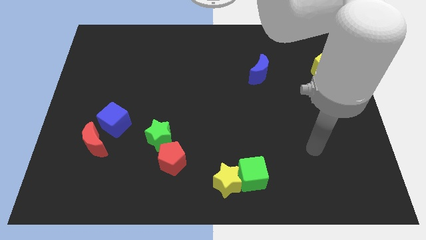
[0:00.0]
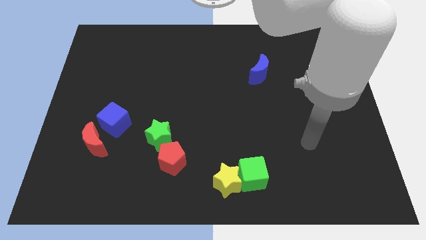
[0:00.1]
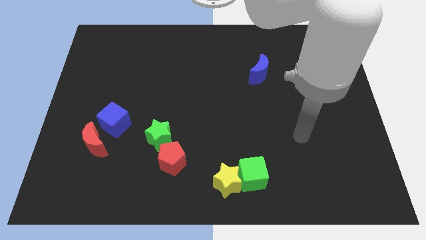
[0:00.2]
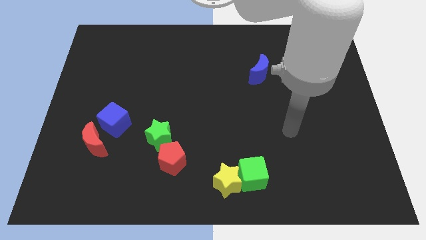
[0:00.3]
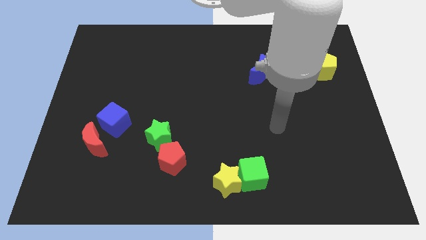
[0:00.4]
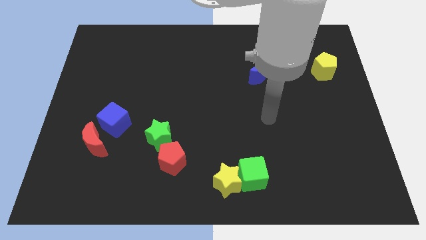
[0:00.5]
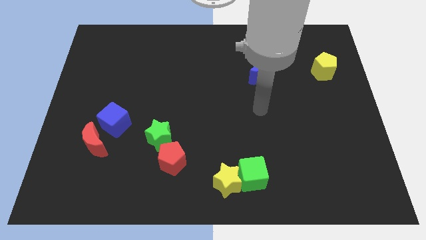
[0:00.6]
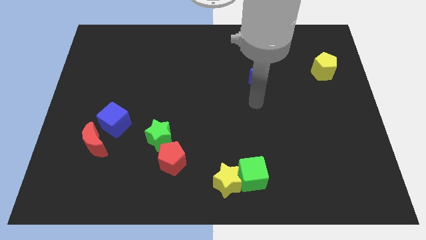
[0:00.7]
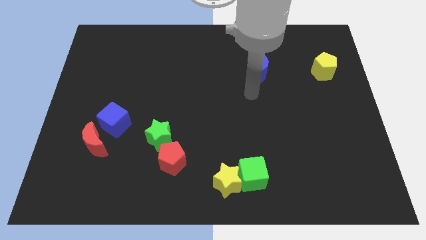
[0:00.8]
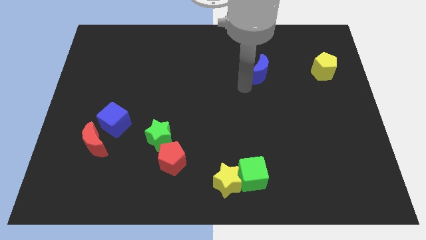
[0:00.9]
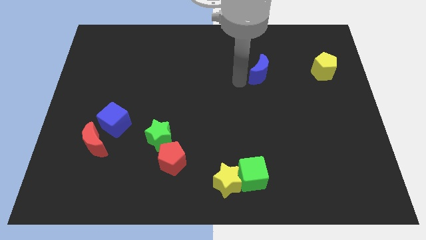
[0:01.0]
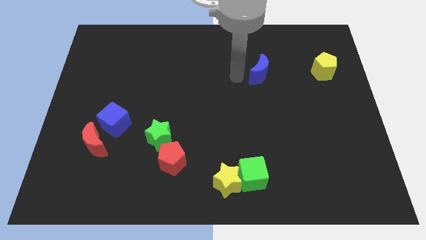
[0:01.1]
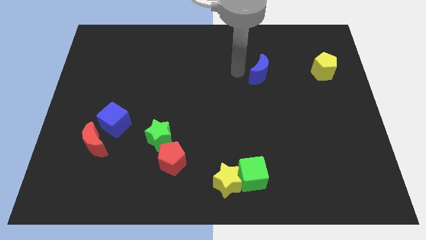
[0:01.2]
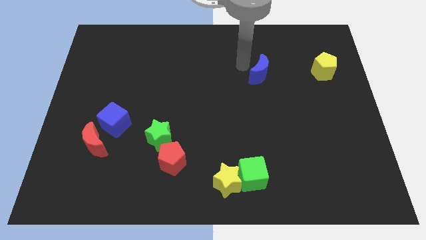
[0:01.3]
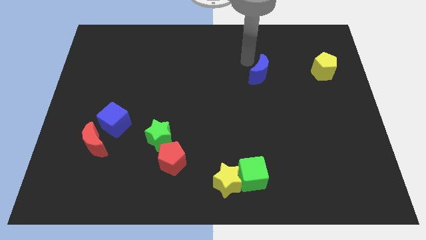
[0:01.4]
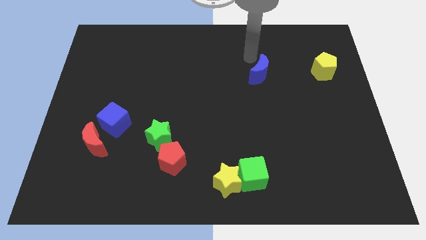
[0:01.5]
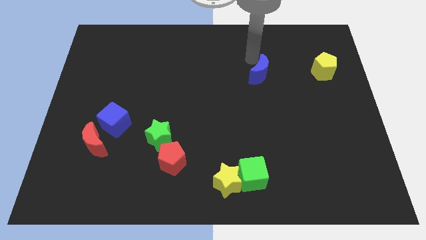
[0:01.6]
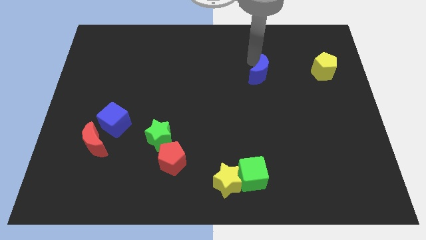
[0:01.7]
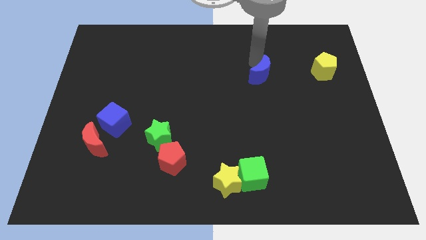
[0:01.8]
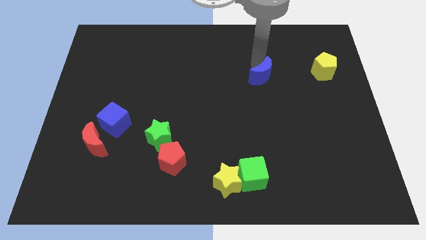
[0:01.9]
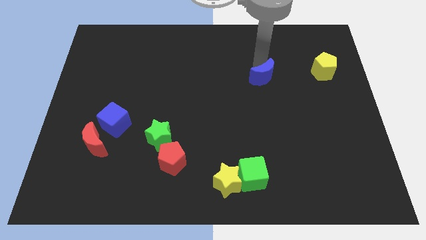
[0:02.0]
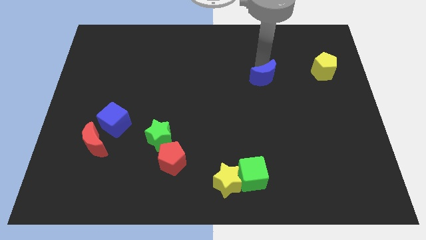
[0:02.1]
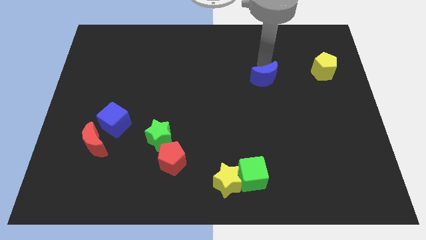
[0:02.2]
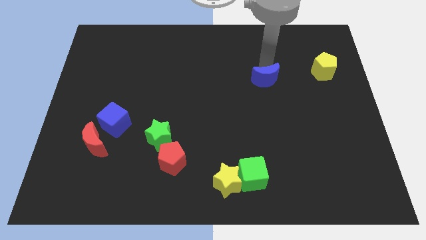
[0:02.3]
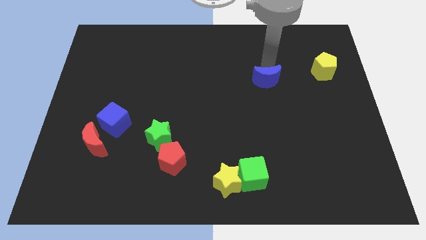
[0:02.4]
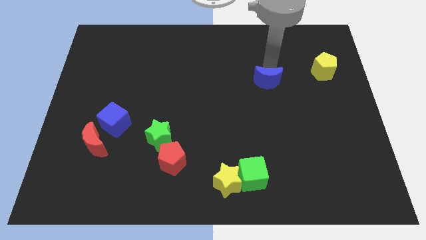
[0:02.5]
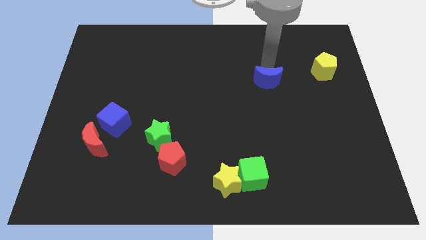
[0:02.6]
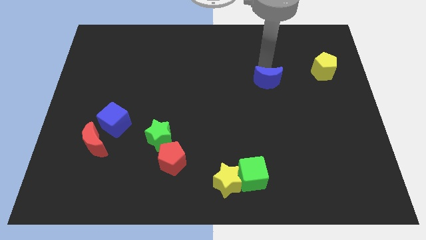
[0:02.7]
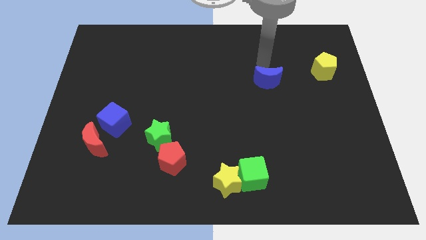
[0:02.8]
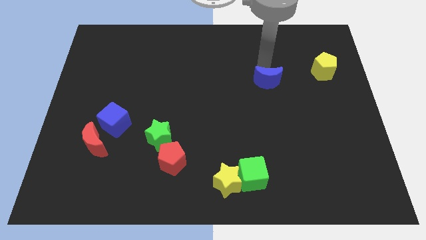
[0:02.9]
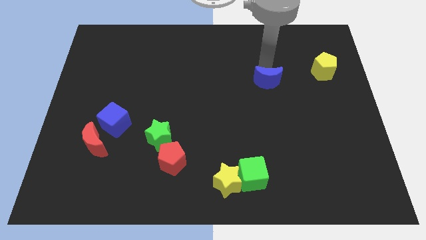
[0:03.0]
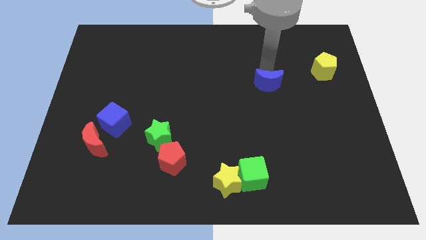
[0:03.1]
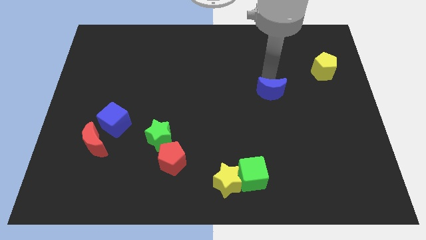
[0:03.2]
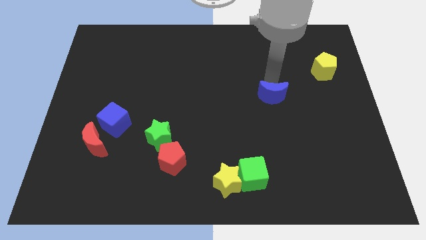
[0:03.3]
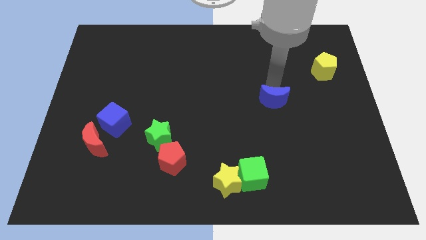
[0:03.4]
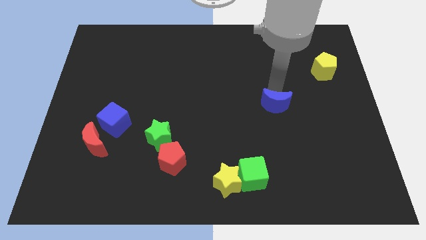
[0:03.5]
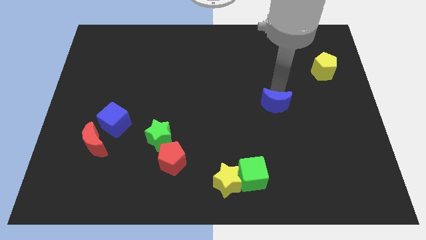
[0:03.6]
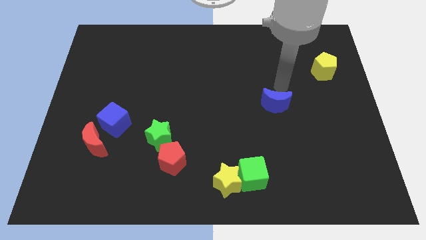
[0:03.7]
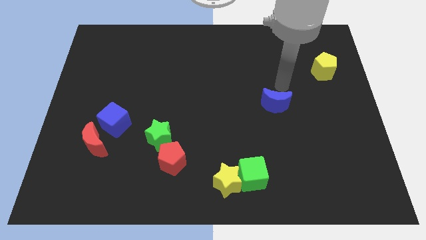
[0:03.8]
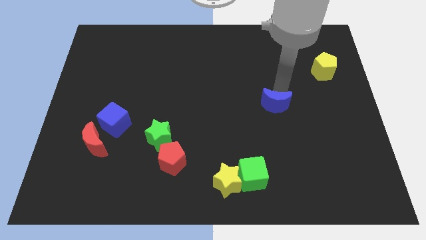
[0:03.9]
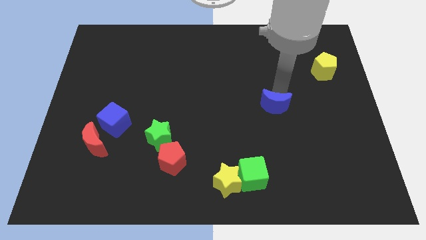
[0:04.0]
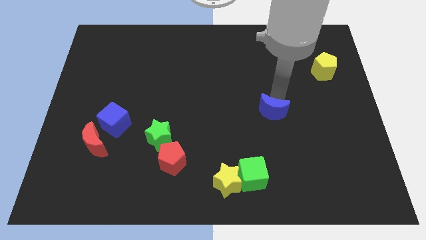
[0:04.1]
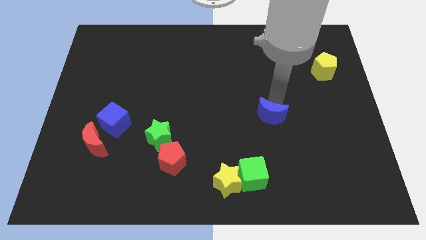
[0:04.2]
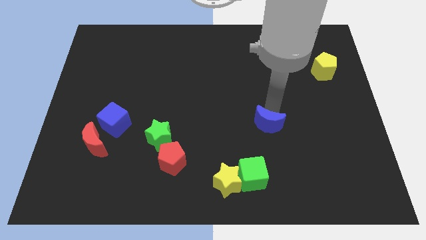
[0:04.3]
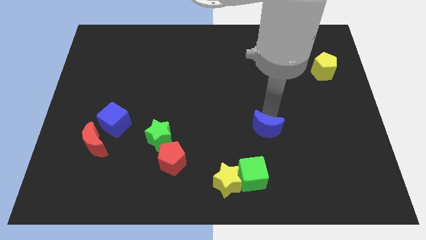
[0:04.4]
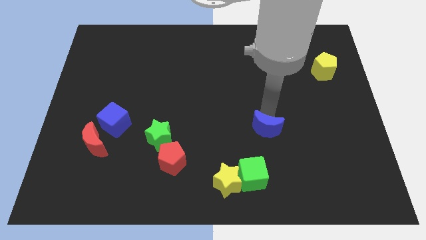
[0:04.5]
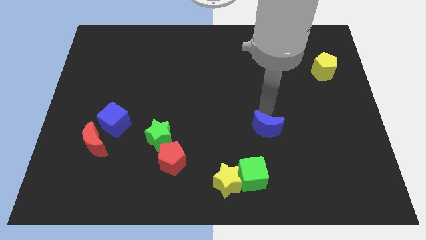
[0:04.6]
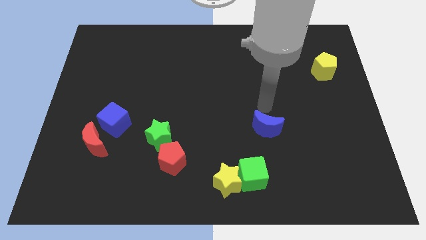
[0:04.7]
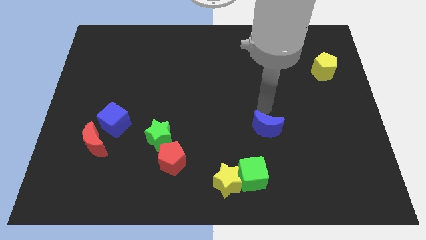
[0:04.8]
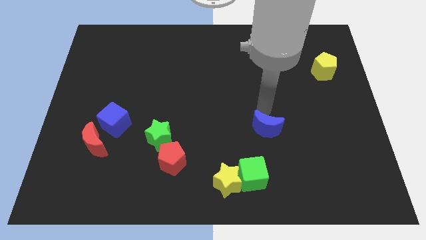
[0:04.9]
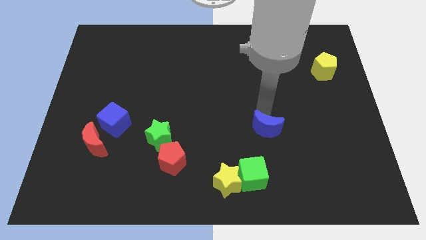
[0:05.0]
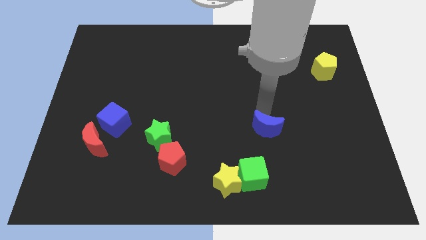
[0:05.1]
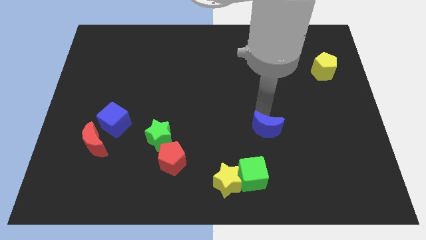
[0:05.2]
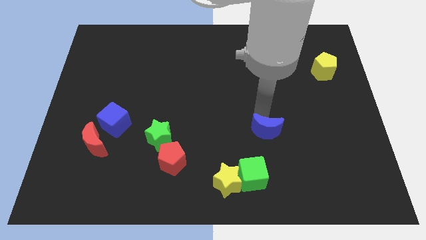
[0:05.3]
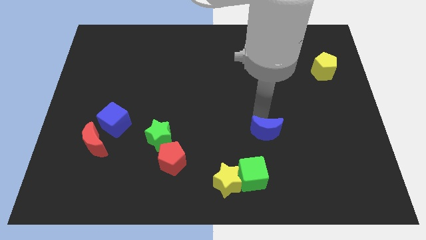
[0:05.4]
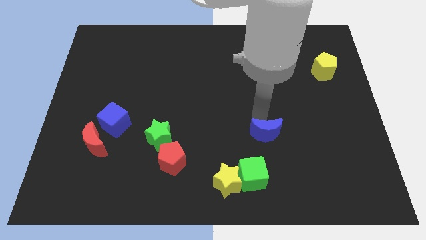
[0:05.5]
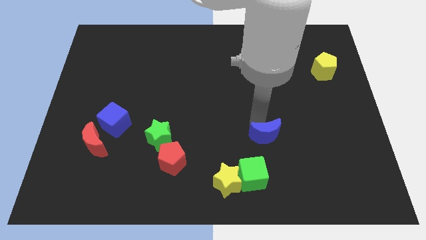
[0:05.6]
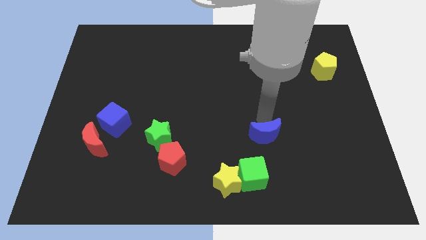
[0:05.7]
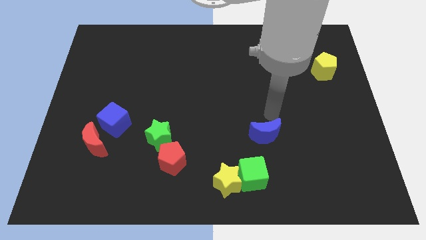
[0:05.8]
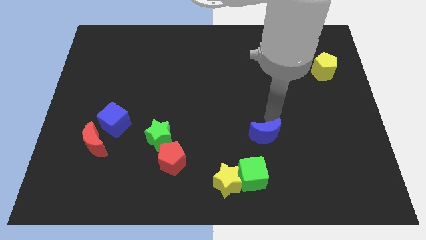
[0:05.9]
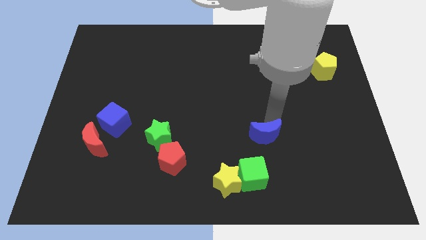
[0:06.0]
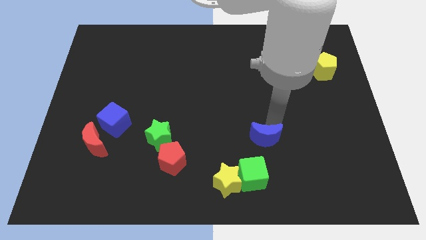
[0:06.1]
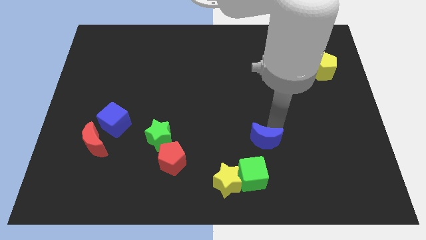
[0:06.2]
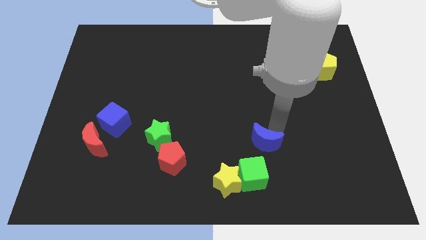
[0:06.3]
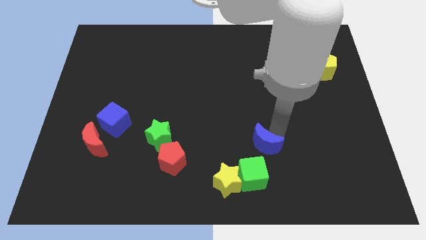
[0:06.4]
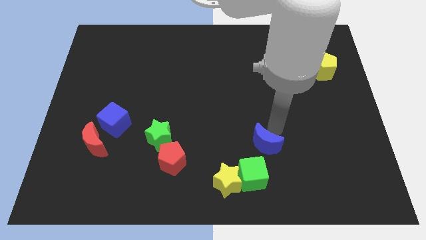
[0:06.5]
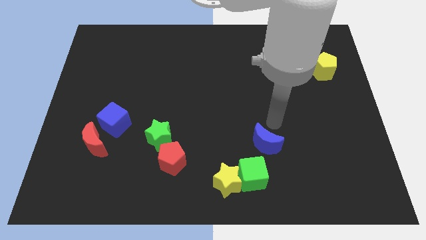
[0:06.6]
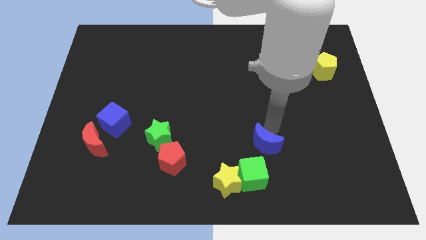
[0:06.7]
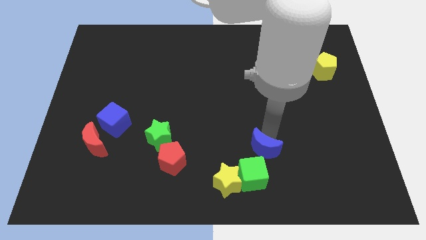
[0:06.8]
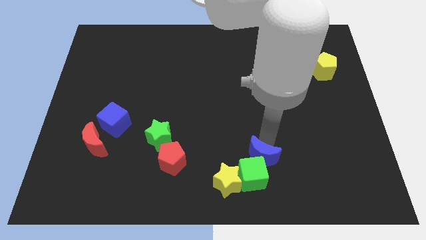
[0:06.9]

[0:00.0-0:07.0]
push the blue moon towards the green cube
